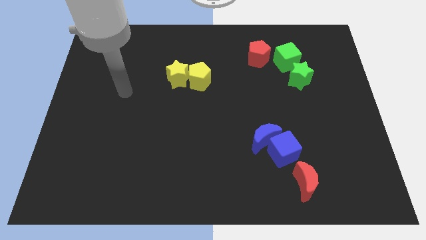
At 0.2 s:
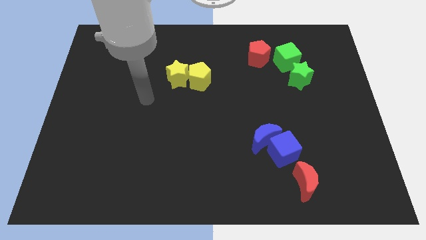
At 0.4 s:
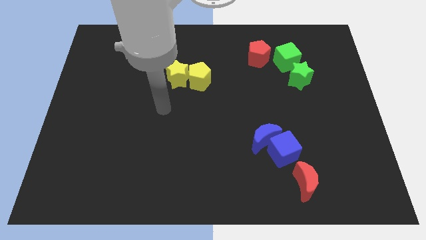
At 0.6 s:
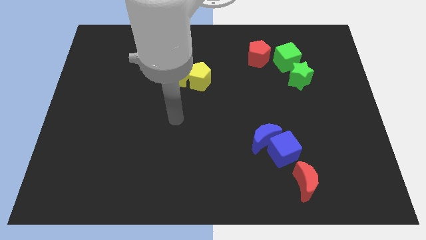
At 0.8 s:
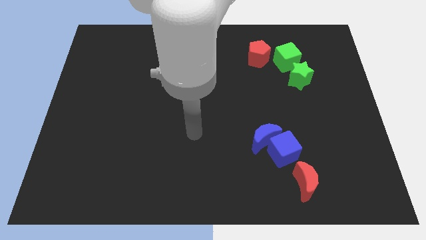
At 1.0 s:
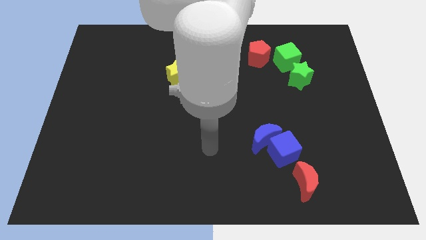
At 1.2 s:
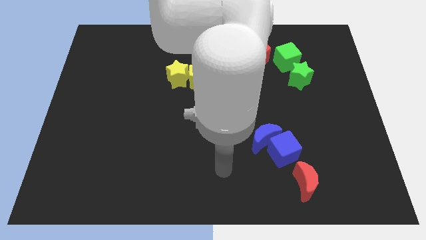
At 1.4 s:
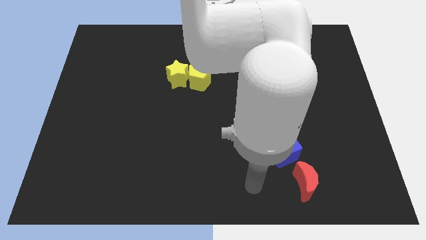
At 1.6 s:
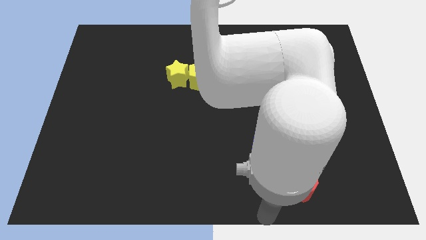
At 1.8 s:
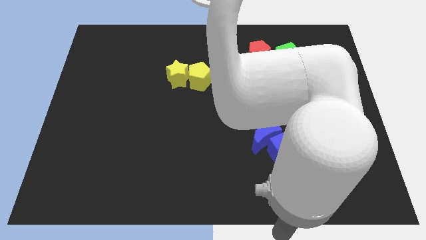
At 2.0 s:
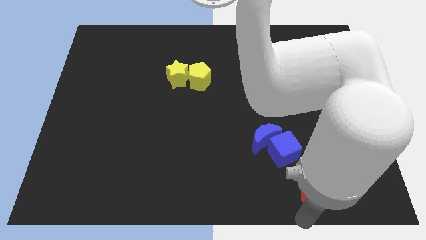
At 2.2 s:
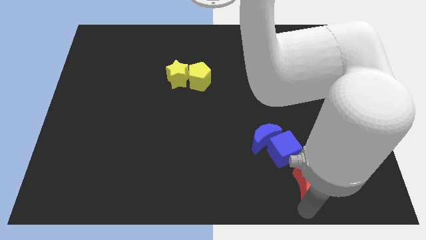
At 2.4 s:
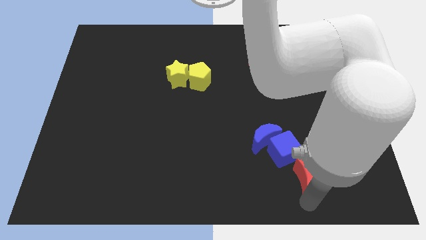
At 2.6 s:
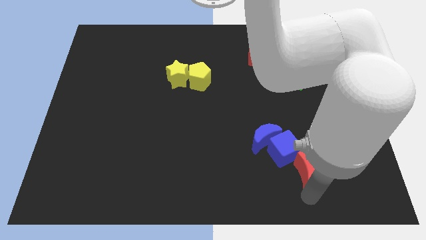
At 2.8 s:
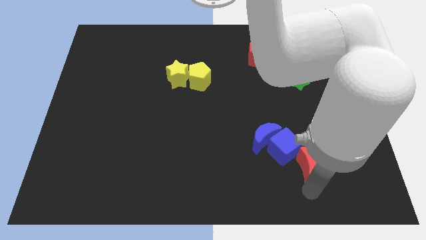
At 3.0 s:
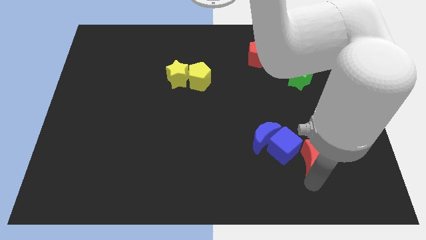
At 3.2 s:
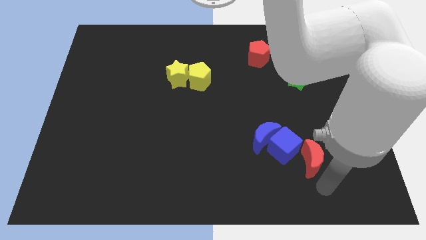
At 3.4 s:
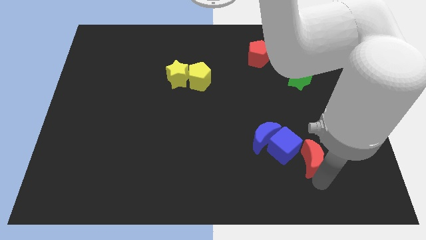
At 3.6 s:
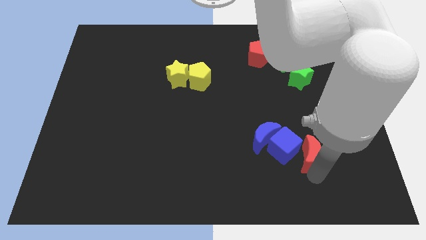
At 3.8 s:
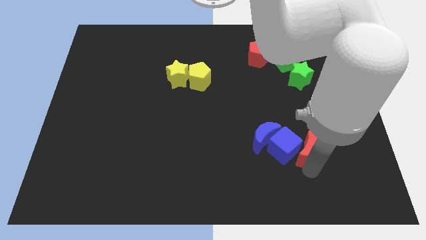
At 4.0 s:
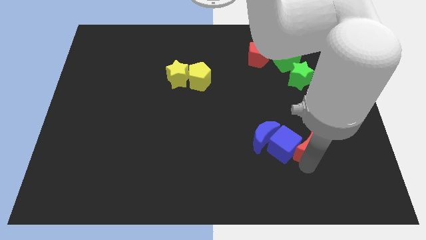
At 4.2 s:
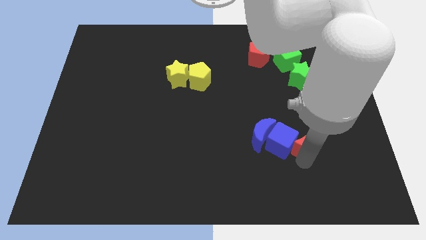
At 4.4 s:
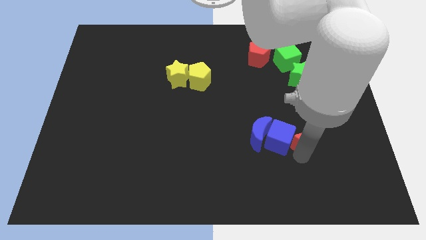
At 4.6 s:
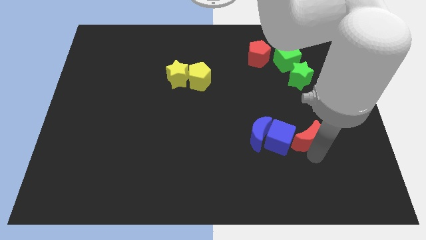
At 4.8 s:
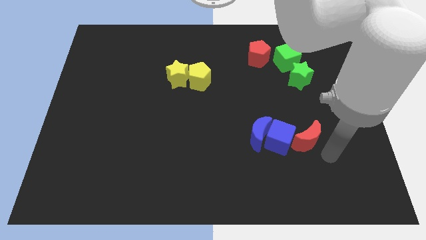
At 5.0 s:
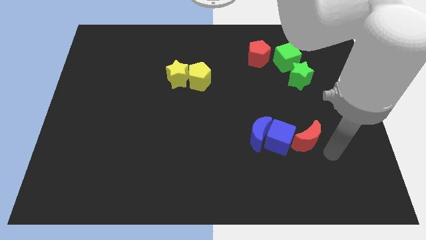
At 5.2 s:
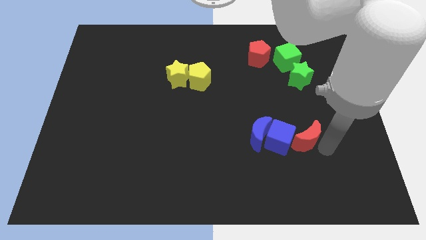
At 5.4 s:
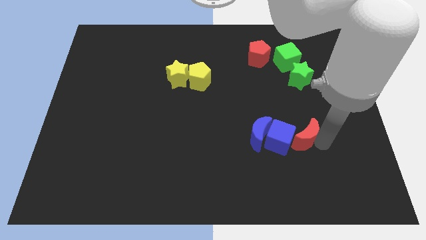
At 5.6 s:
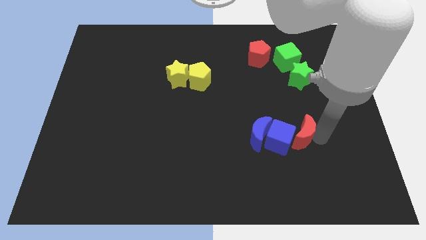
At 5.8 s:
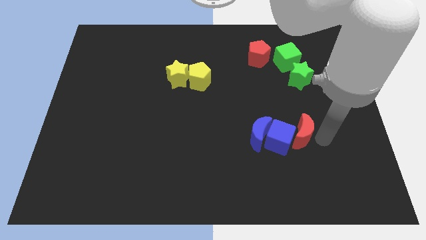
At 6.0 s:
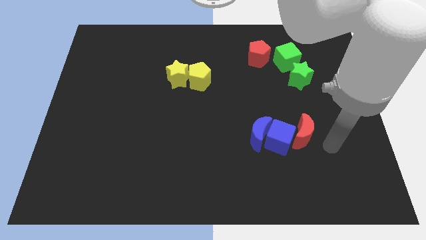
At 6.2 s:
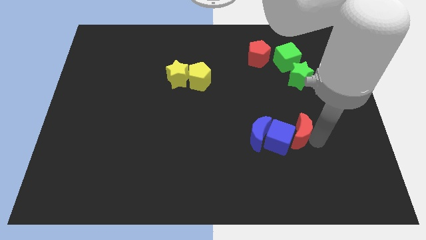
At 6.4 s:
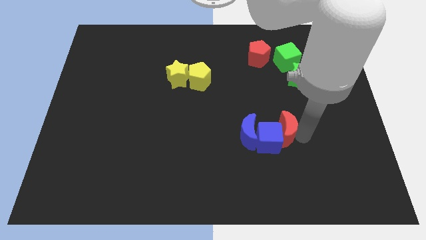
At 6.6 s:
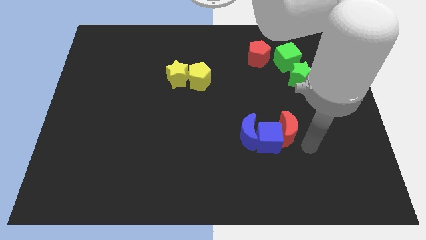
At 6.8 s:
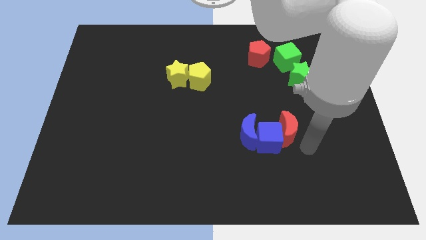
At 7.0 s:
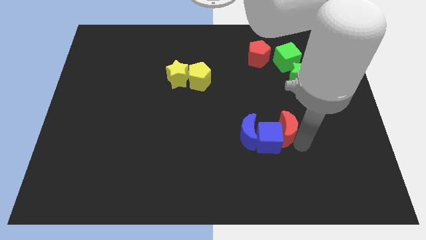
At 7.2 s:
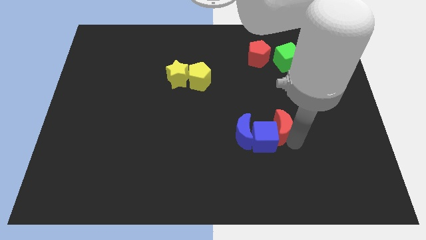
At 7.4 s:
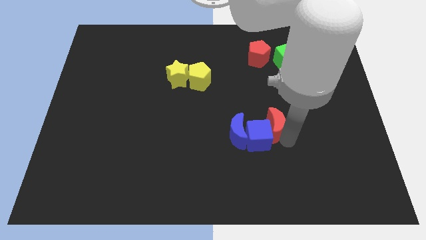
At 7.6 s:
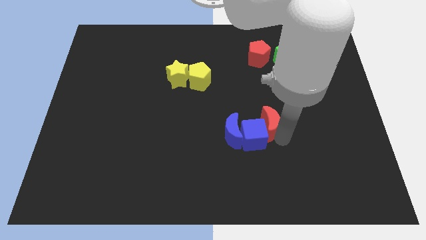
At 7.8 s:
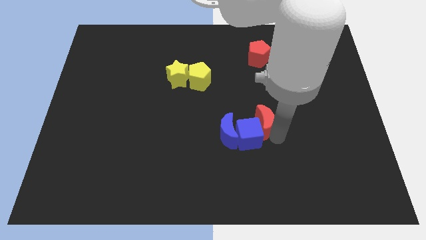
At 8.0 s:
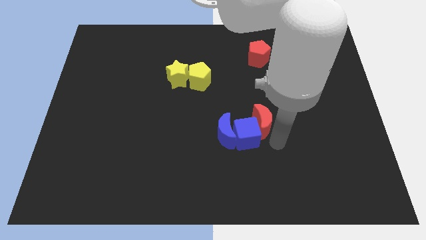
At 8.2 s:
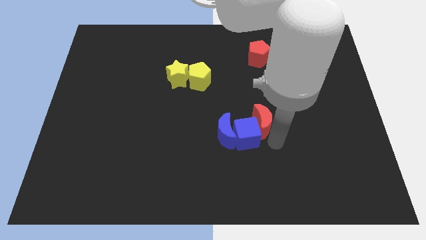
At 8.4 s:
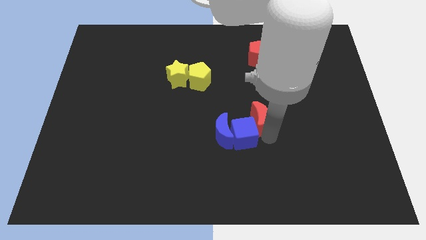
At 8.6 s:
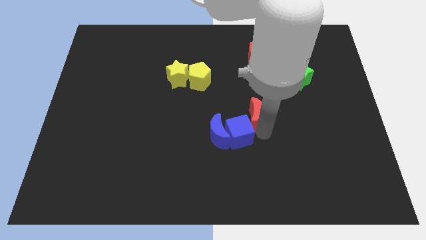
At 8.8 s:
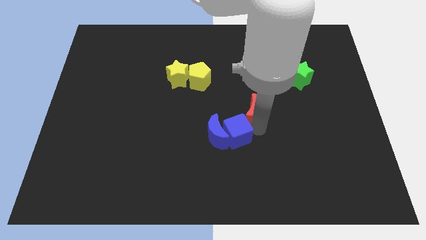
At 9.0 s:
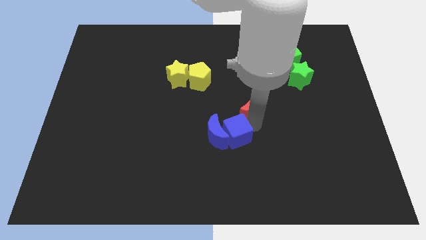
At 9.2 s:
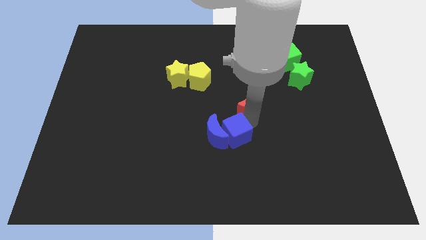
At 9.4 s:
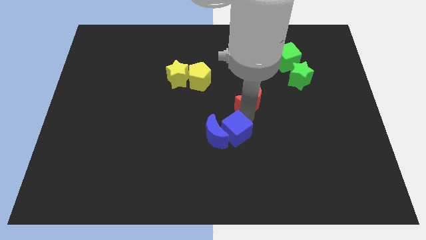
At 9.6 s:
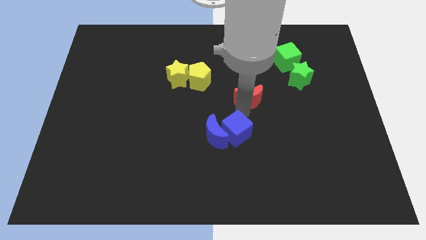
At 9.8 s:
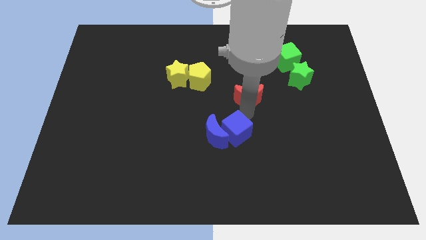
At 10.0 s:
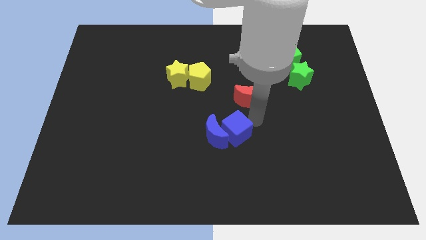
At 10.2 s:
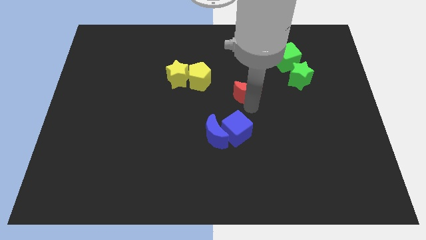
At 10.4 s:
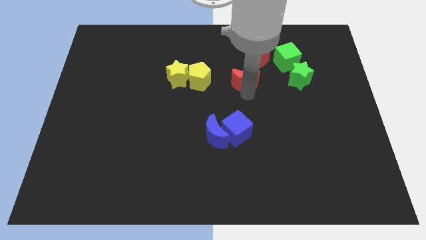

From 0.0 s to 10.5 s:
push the red moon diagonally down and to the left of the red pentagon

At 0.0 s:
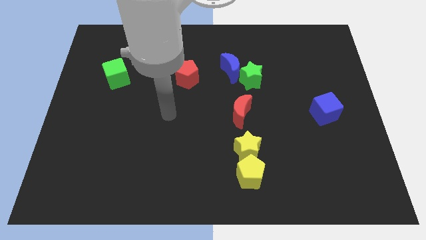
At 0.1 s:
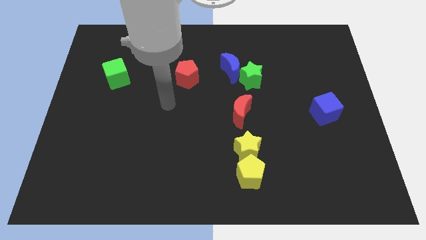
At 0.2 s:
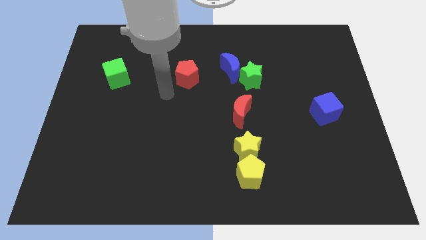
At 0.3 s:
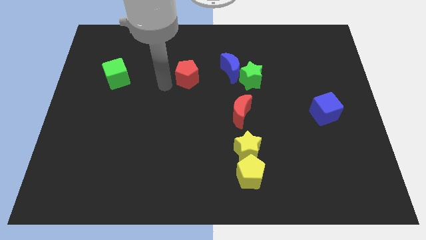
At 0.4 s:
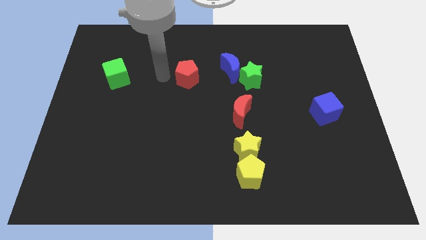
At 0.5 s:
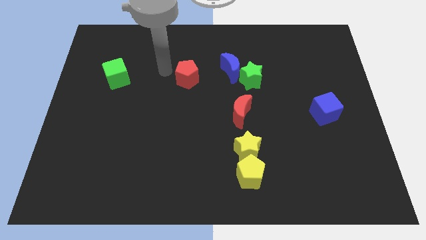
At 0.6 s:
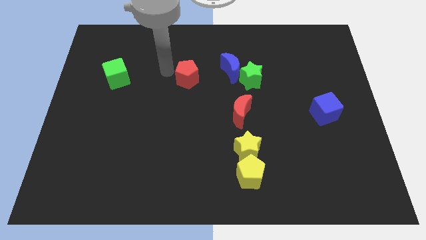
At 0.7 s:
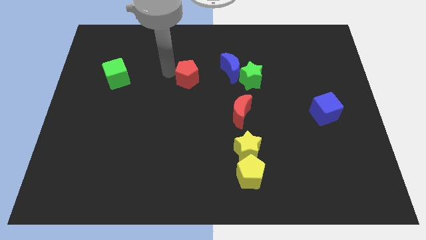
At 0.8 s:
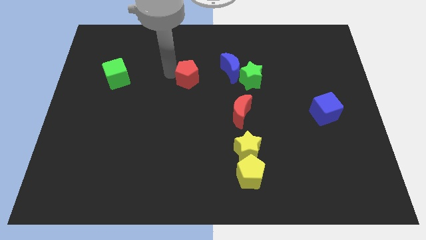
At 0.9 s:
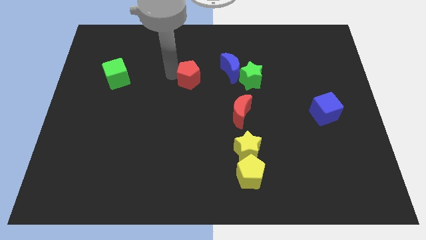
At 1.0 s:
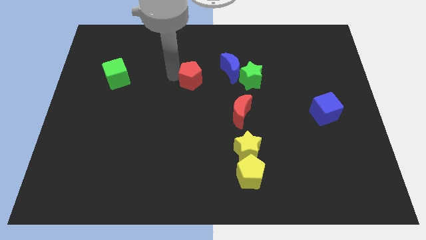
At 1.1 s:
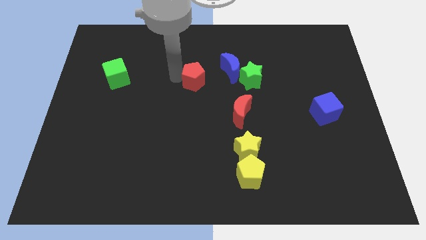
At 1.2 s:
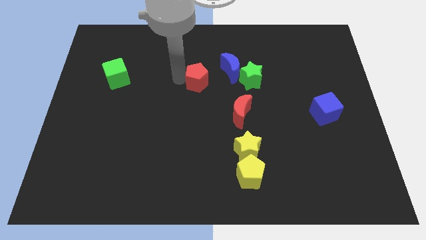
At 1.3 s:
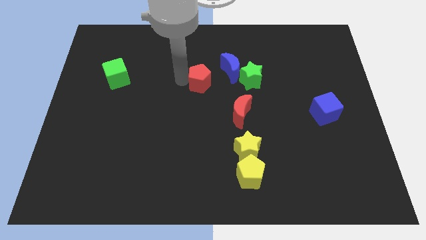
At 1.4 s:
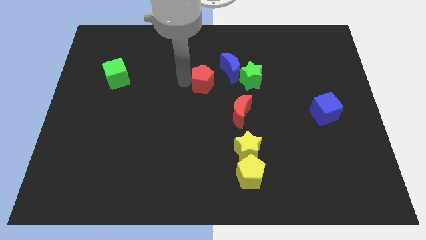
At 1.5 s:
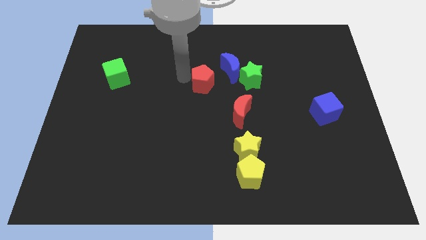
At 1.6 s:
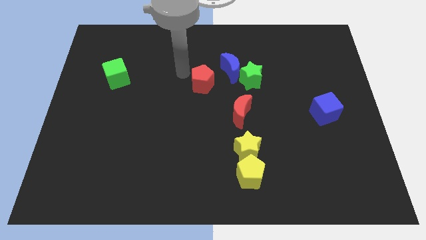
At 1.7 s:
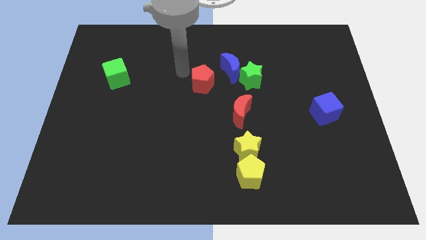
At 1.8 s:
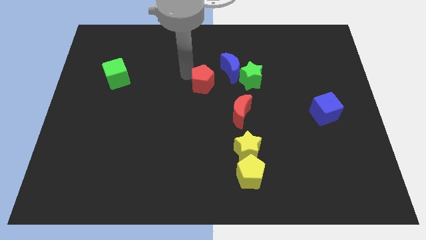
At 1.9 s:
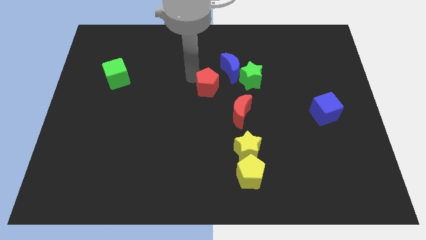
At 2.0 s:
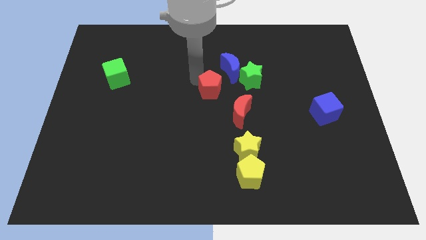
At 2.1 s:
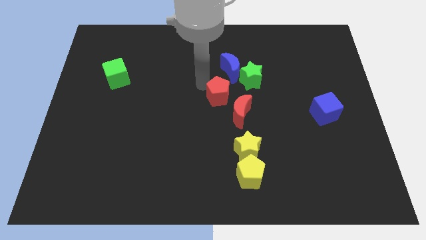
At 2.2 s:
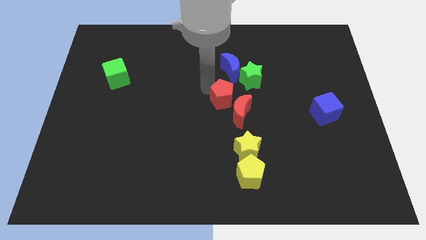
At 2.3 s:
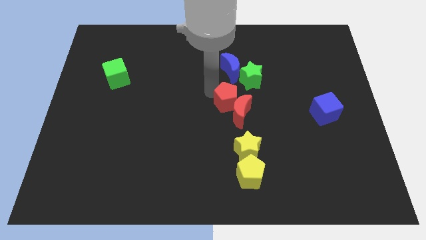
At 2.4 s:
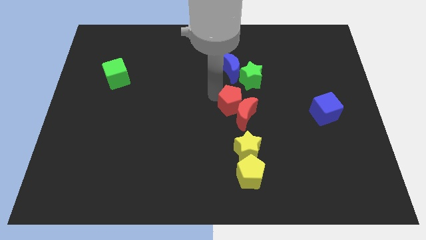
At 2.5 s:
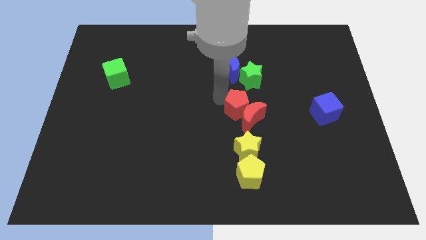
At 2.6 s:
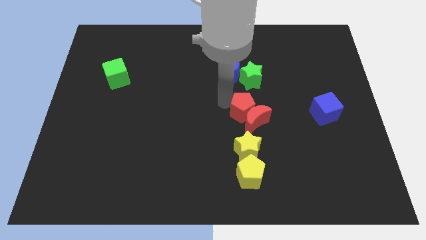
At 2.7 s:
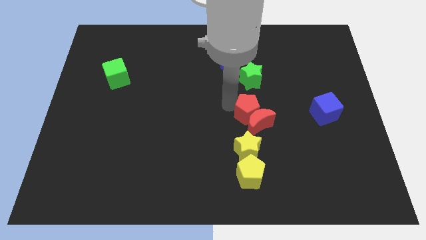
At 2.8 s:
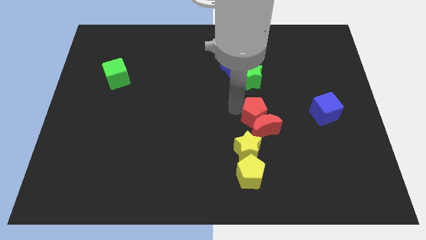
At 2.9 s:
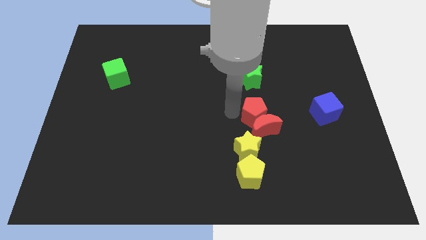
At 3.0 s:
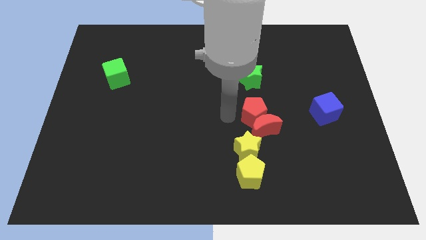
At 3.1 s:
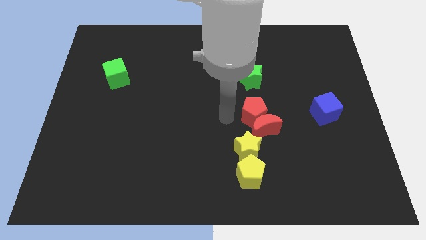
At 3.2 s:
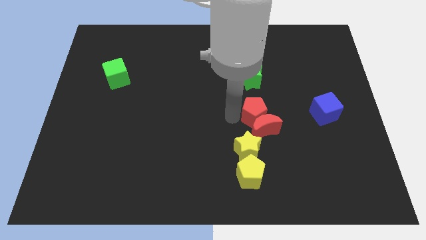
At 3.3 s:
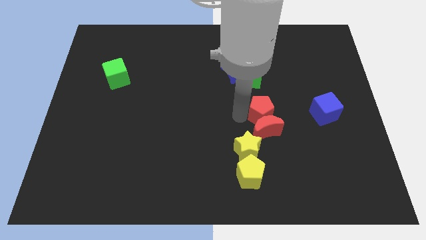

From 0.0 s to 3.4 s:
move the red pentagon to the left side of the blue cube
